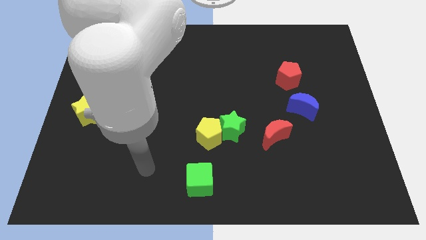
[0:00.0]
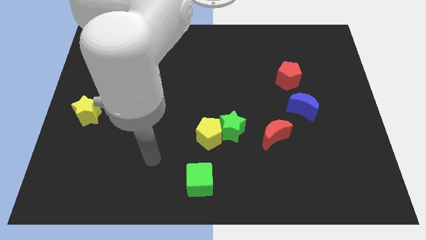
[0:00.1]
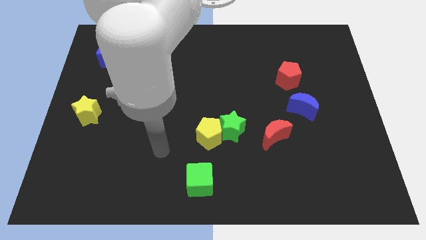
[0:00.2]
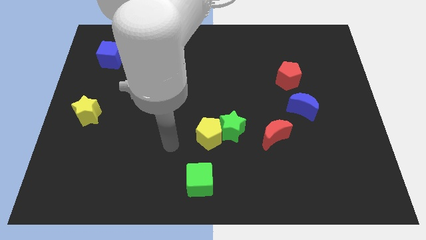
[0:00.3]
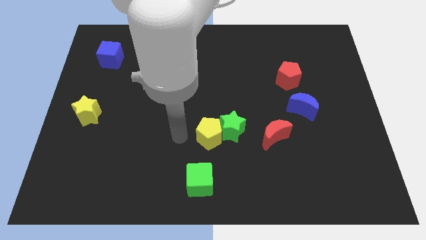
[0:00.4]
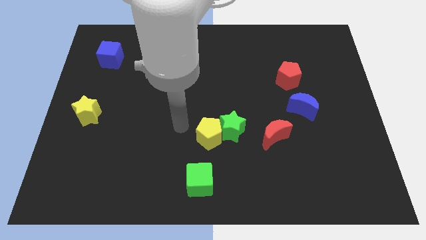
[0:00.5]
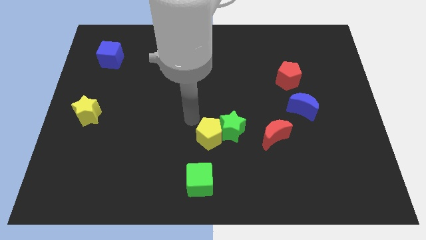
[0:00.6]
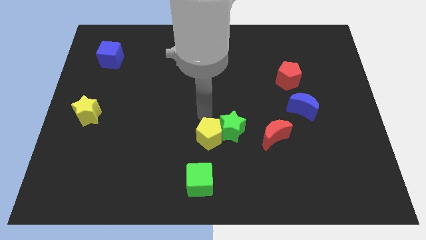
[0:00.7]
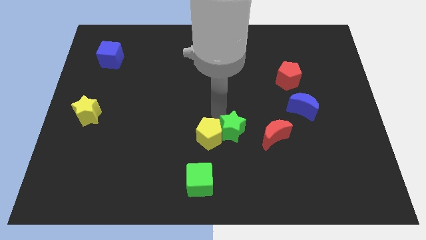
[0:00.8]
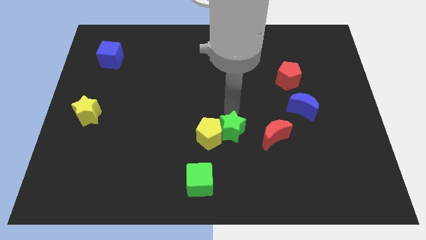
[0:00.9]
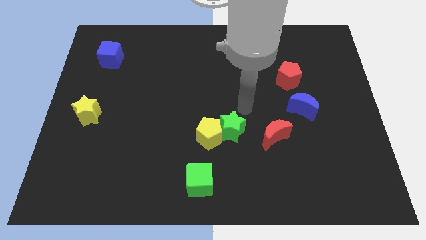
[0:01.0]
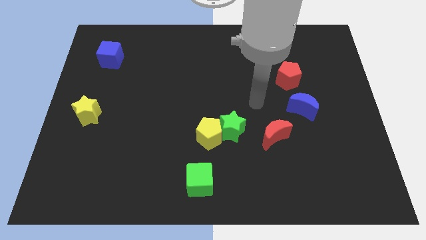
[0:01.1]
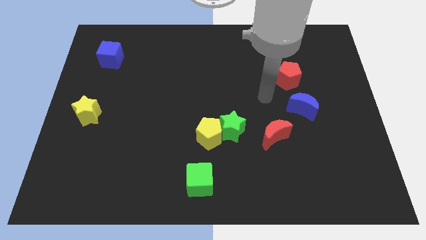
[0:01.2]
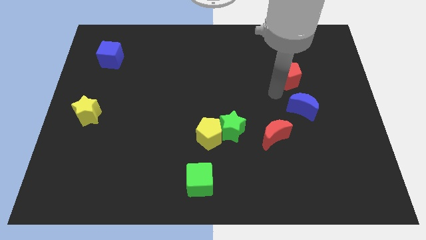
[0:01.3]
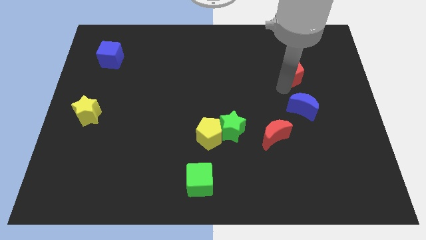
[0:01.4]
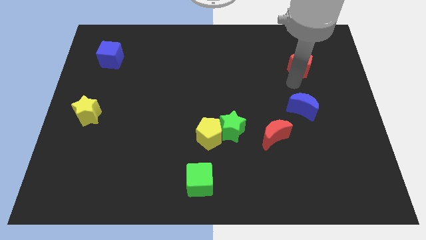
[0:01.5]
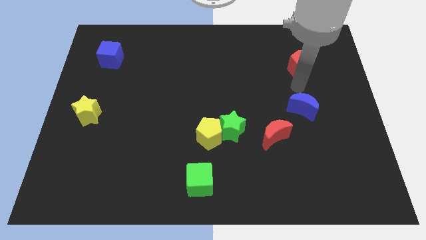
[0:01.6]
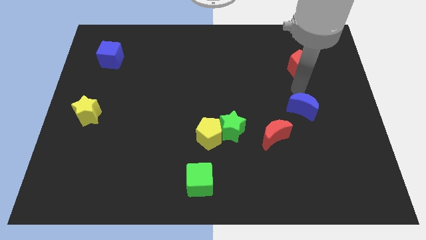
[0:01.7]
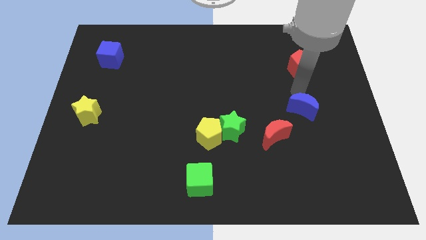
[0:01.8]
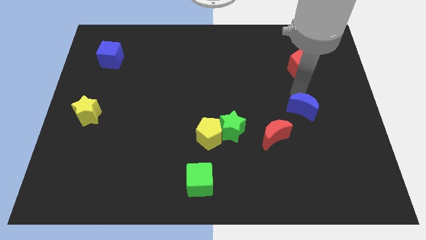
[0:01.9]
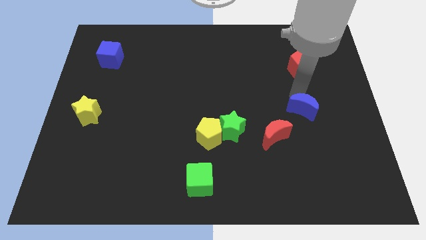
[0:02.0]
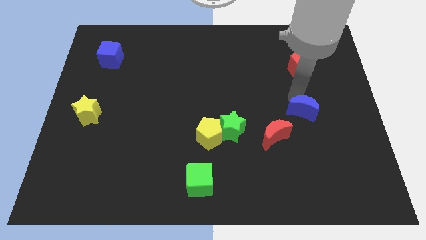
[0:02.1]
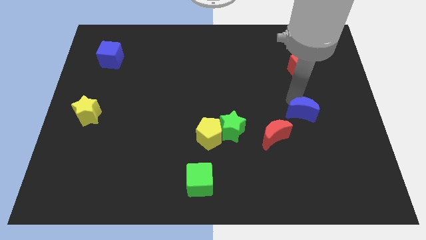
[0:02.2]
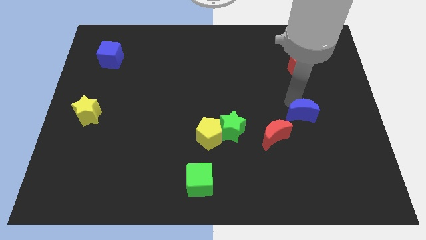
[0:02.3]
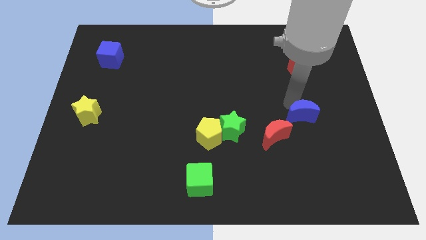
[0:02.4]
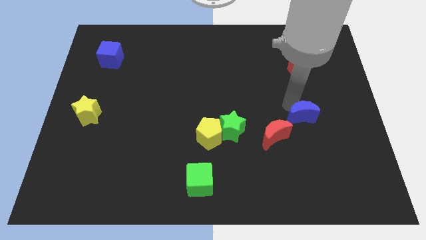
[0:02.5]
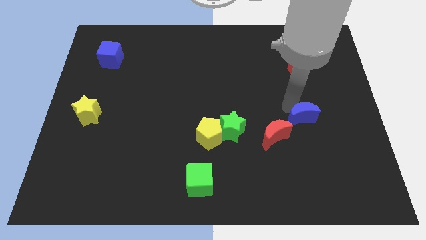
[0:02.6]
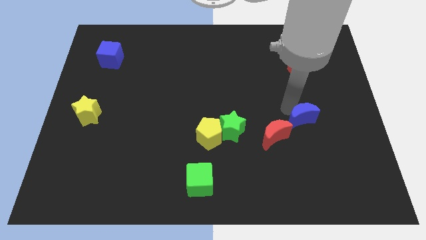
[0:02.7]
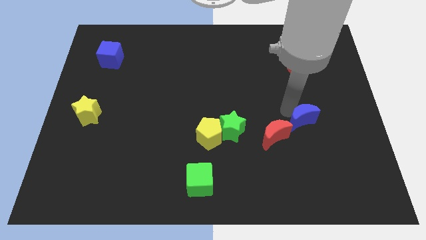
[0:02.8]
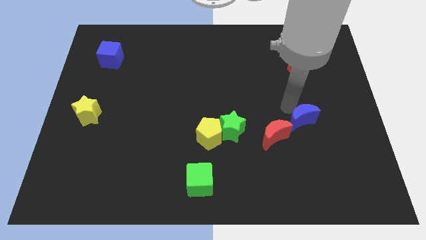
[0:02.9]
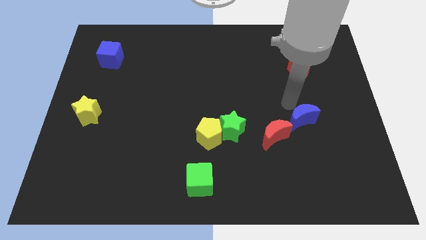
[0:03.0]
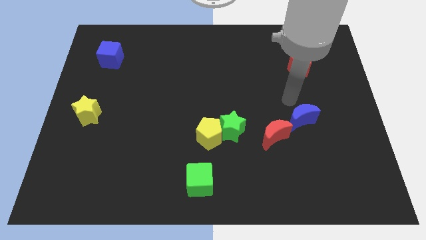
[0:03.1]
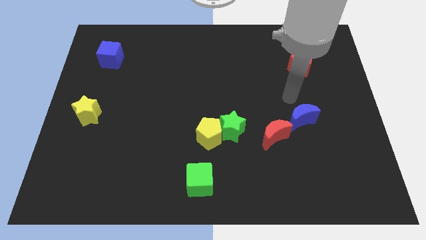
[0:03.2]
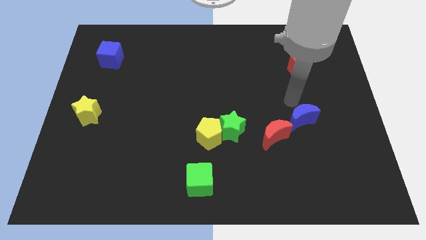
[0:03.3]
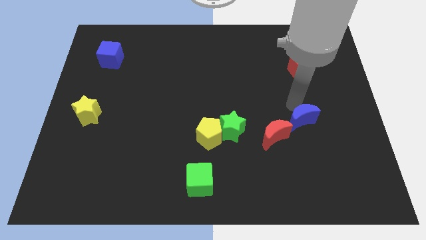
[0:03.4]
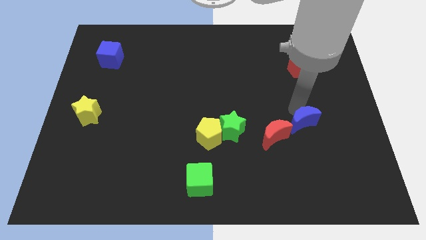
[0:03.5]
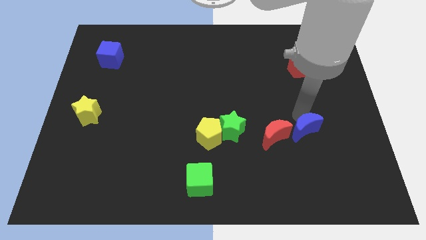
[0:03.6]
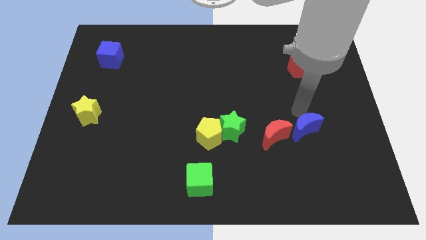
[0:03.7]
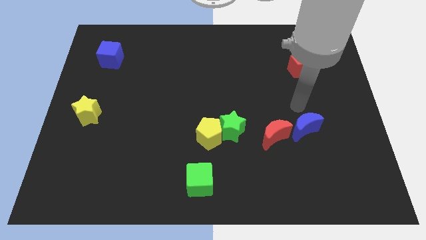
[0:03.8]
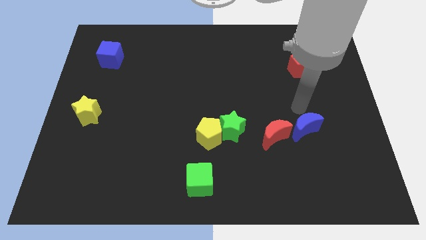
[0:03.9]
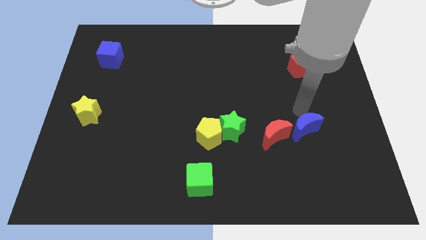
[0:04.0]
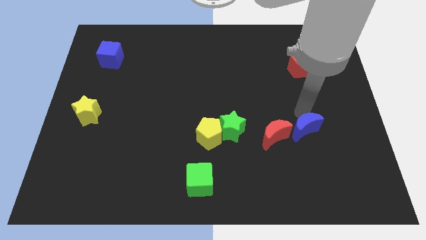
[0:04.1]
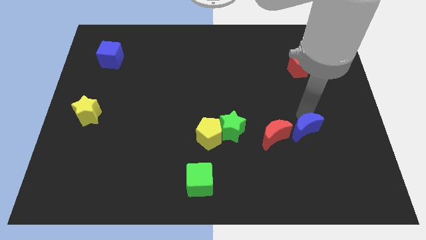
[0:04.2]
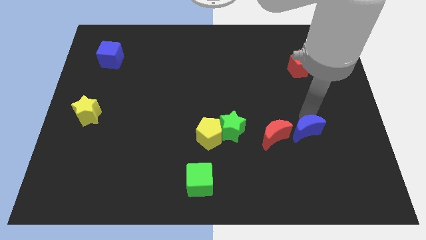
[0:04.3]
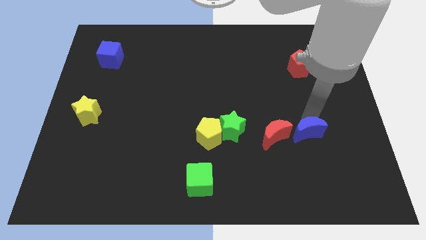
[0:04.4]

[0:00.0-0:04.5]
slide the blue moon slightly down

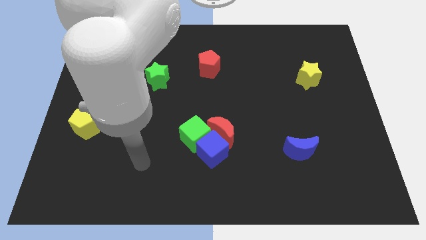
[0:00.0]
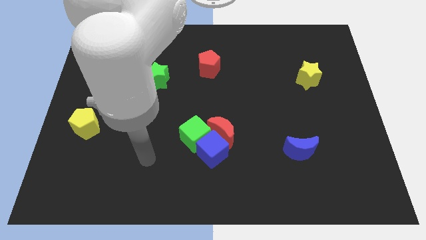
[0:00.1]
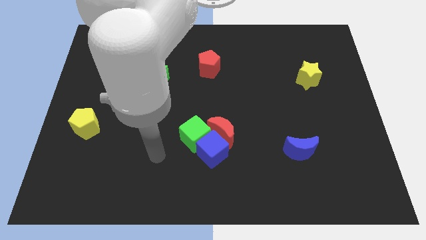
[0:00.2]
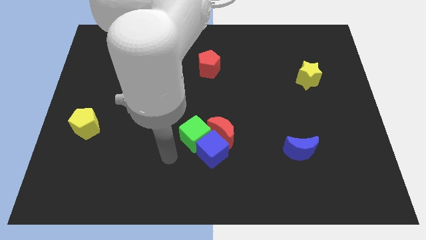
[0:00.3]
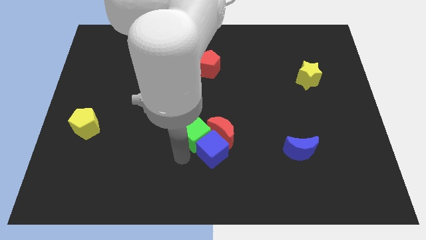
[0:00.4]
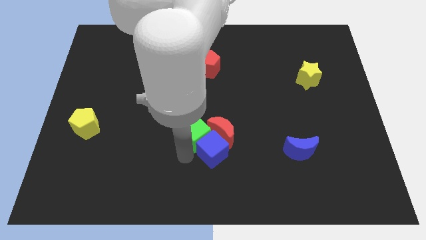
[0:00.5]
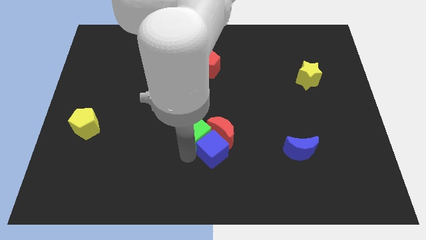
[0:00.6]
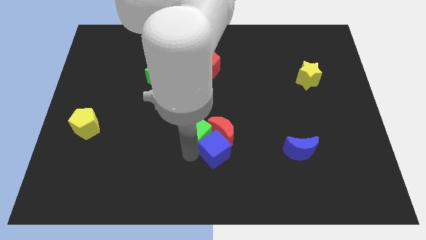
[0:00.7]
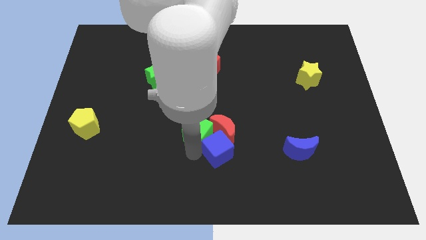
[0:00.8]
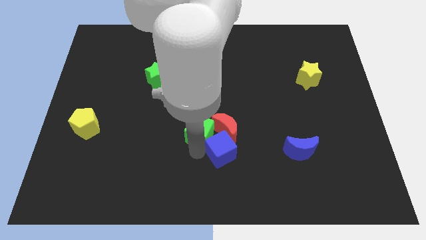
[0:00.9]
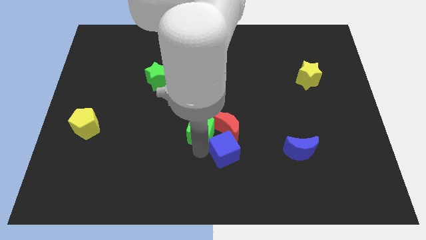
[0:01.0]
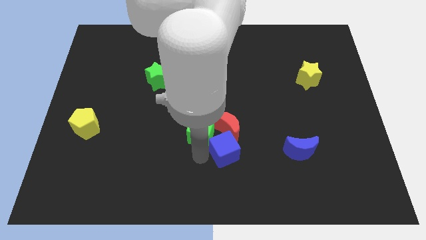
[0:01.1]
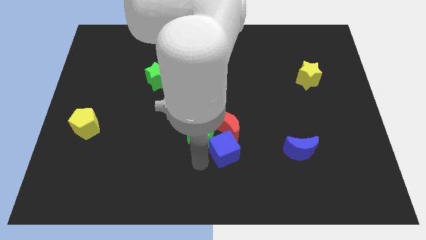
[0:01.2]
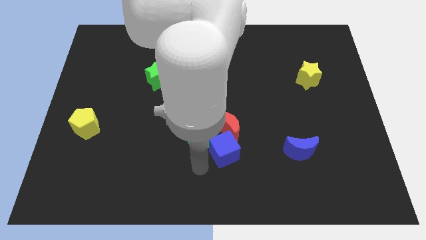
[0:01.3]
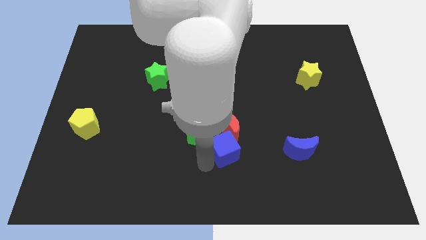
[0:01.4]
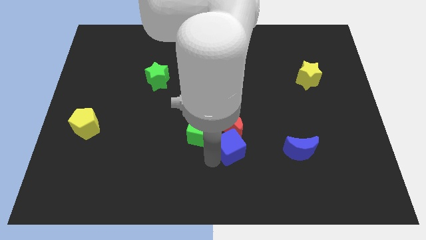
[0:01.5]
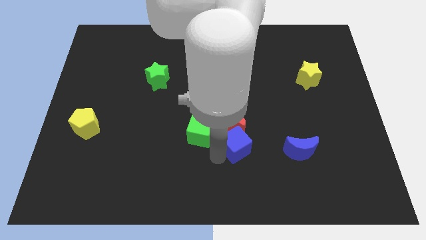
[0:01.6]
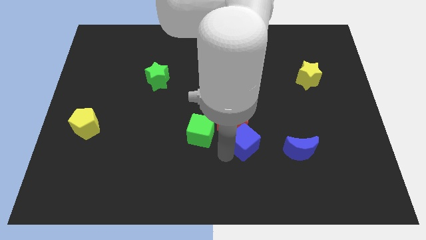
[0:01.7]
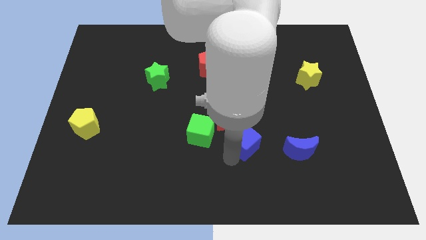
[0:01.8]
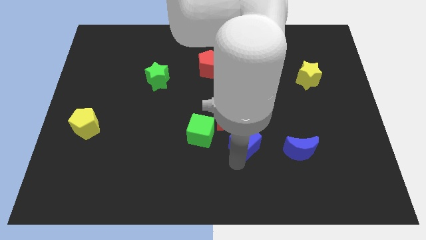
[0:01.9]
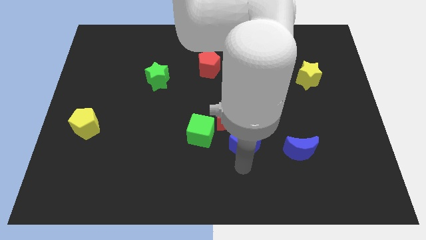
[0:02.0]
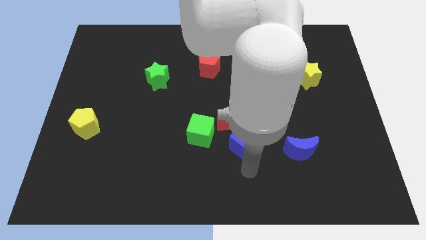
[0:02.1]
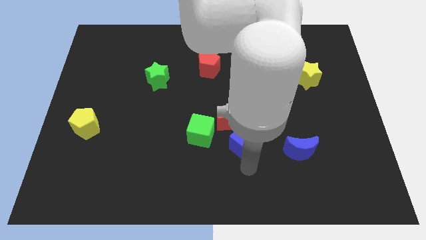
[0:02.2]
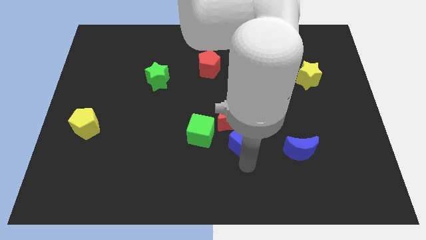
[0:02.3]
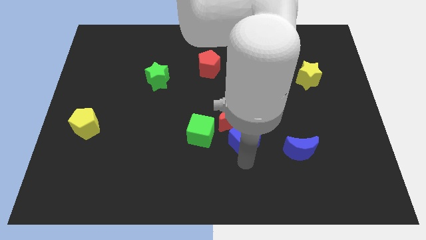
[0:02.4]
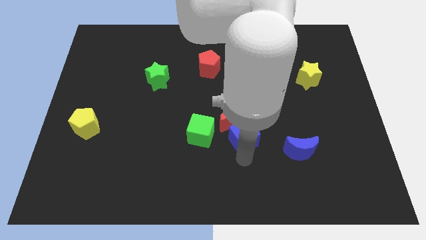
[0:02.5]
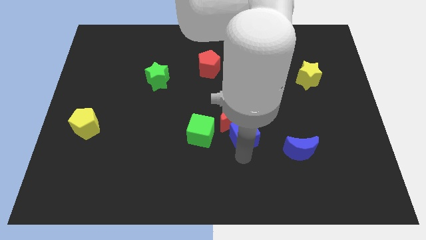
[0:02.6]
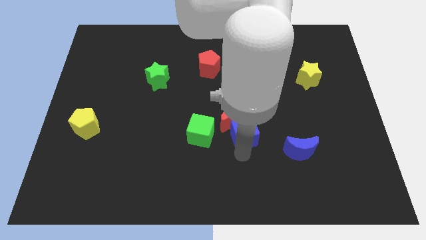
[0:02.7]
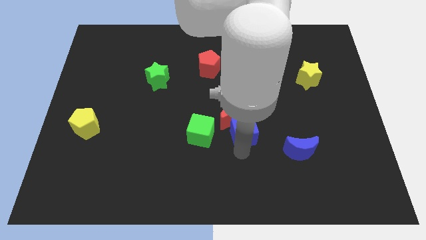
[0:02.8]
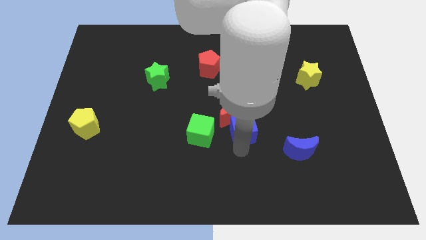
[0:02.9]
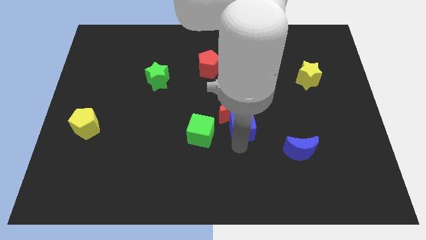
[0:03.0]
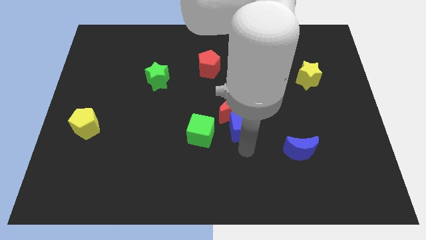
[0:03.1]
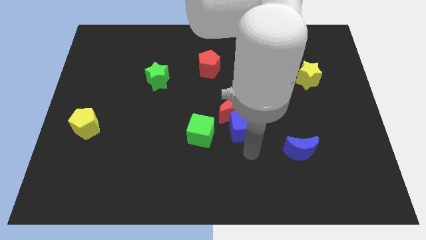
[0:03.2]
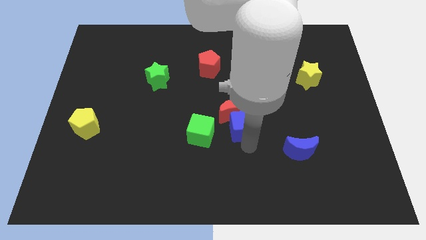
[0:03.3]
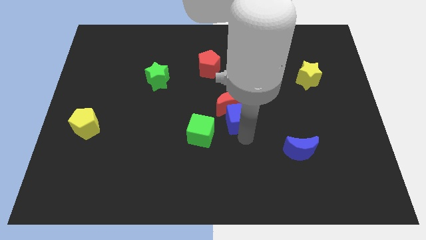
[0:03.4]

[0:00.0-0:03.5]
slightly slide the blue cube upwards

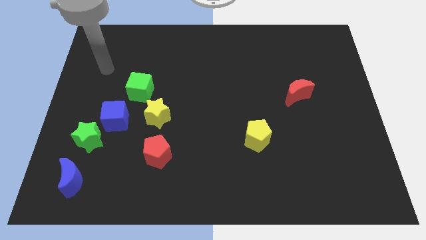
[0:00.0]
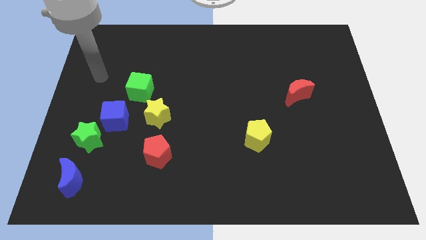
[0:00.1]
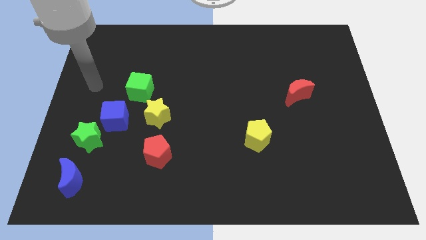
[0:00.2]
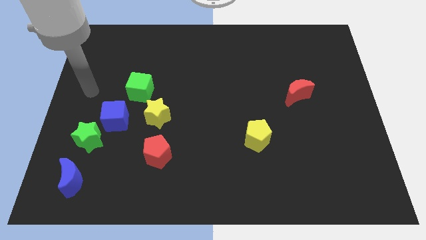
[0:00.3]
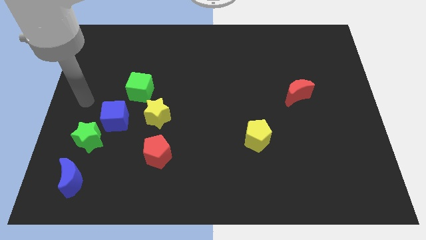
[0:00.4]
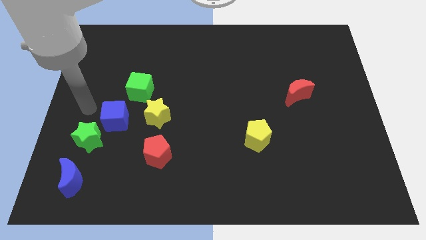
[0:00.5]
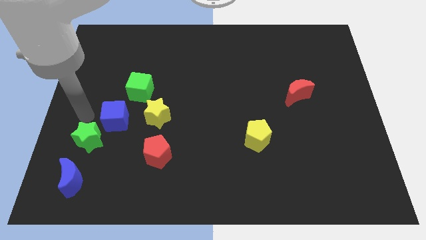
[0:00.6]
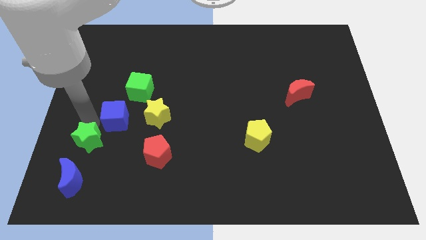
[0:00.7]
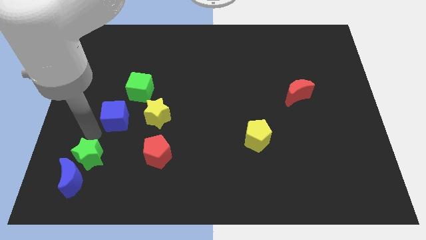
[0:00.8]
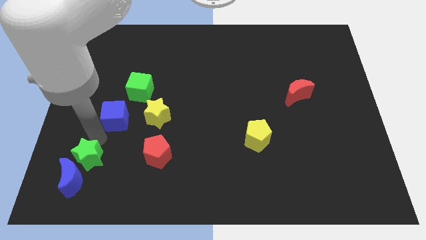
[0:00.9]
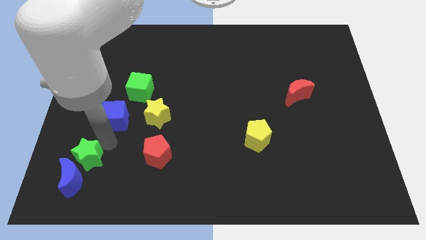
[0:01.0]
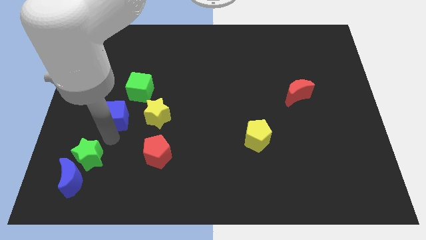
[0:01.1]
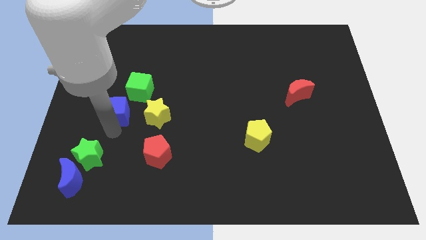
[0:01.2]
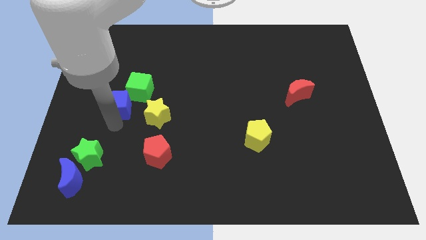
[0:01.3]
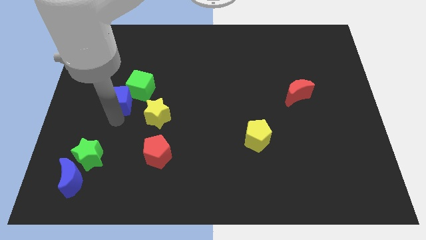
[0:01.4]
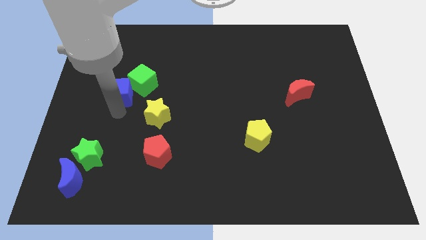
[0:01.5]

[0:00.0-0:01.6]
slide the blue cube a little bit up
